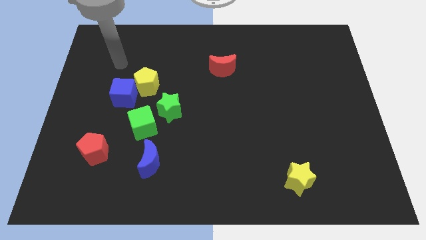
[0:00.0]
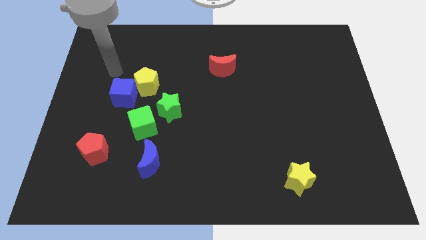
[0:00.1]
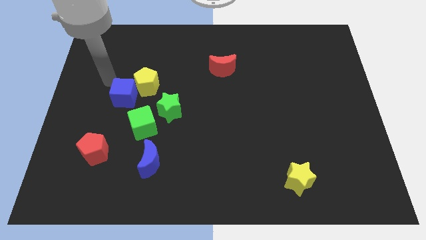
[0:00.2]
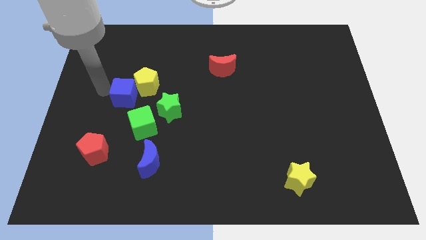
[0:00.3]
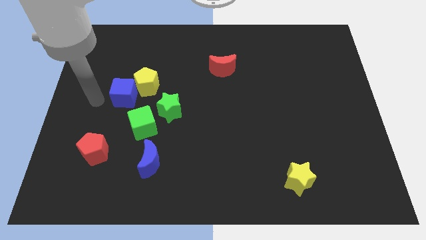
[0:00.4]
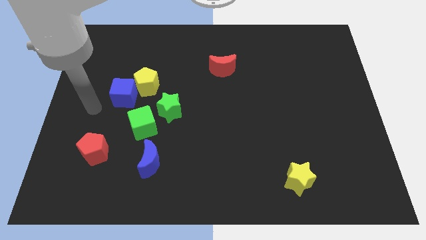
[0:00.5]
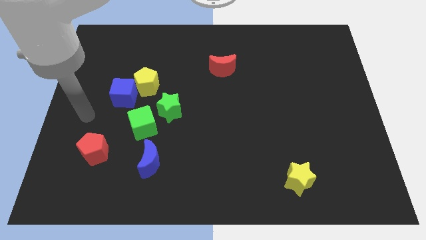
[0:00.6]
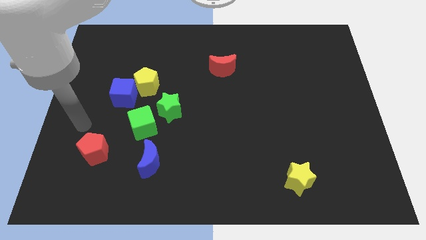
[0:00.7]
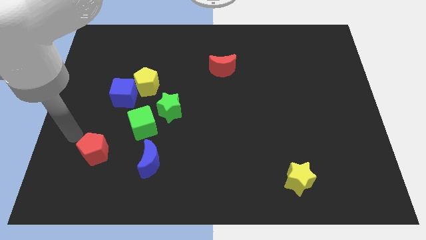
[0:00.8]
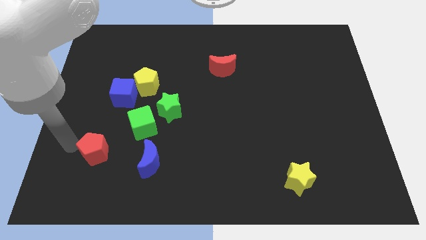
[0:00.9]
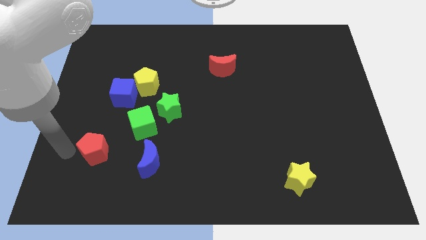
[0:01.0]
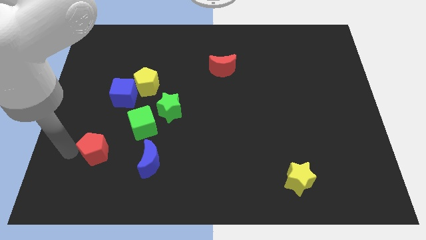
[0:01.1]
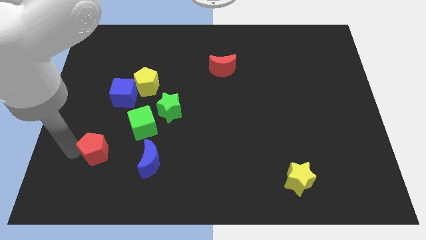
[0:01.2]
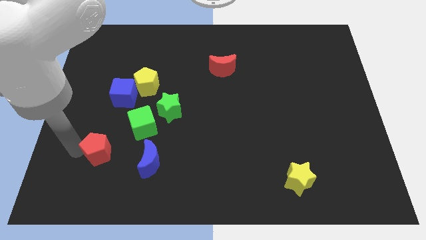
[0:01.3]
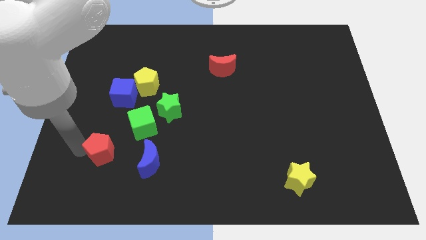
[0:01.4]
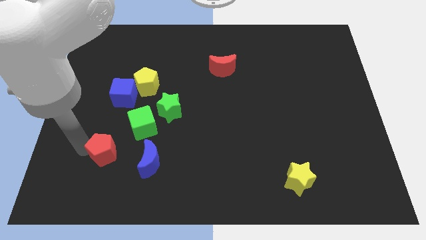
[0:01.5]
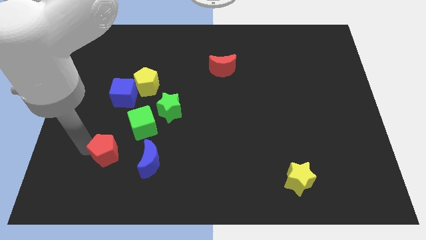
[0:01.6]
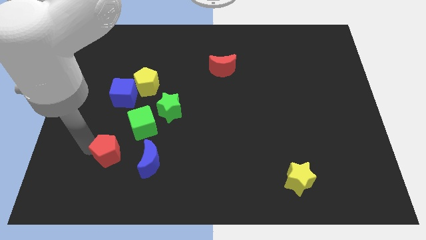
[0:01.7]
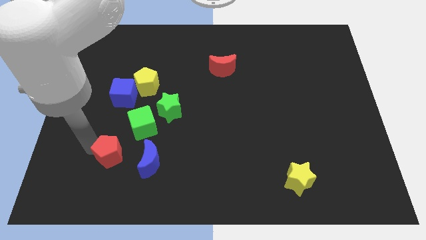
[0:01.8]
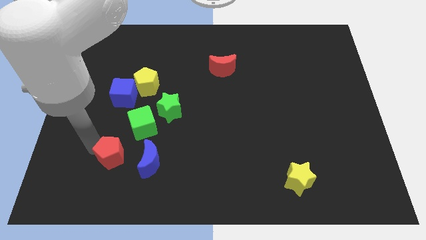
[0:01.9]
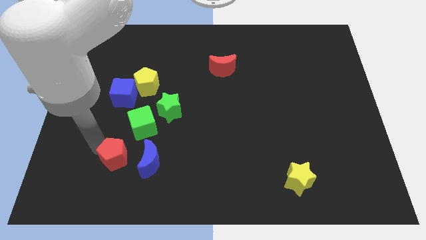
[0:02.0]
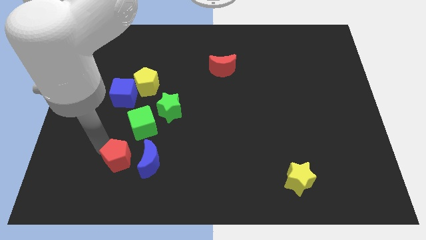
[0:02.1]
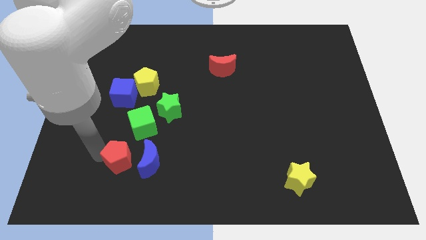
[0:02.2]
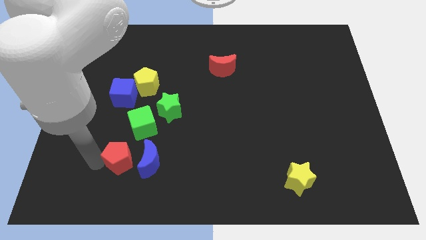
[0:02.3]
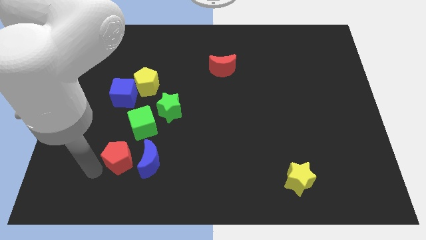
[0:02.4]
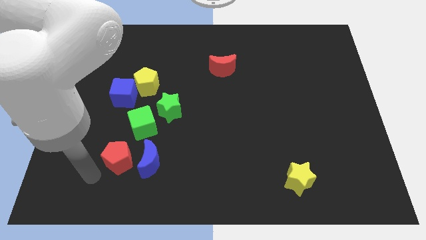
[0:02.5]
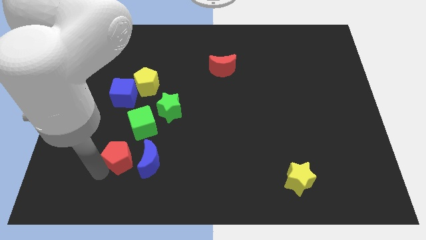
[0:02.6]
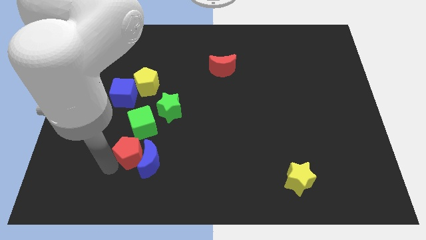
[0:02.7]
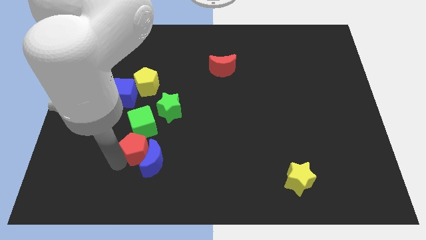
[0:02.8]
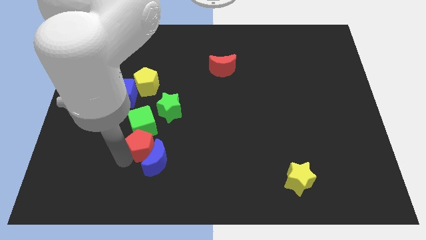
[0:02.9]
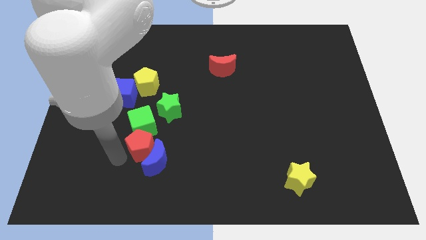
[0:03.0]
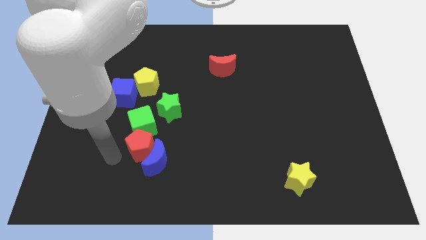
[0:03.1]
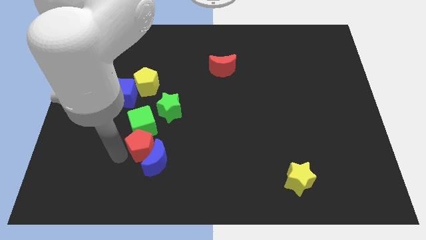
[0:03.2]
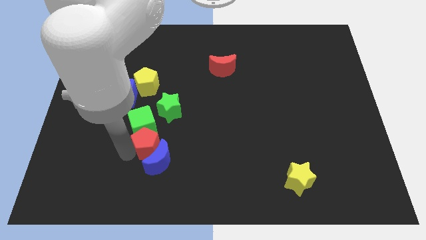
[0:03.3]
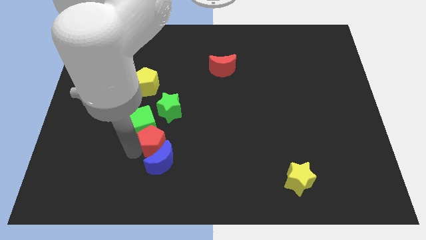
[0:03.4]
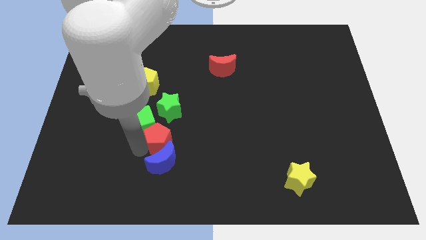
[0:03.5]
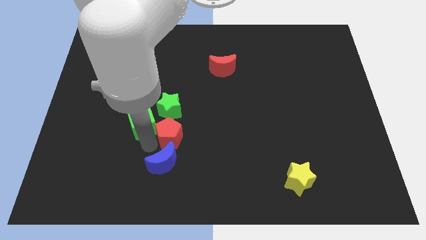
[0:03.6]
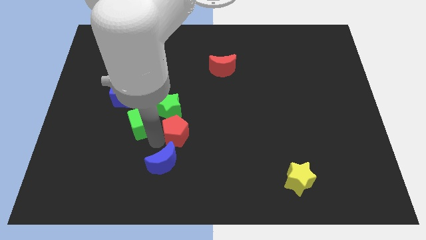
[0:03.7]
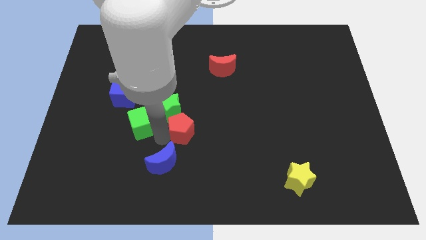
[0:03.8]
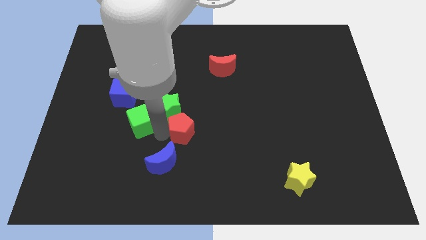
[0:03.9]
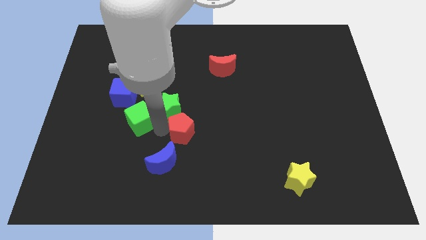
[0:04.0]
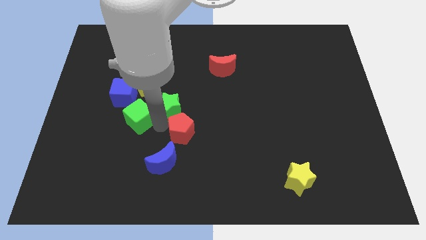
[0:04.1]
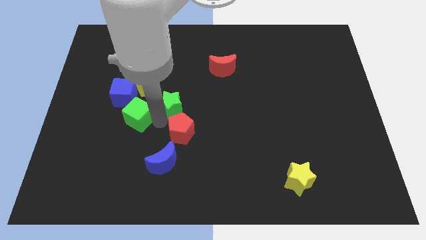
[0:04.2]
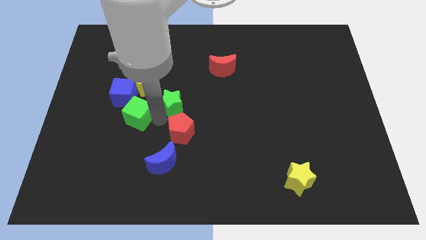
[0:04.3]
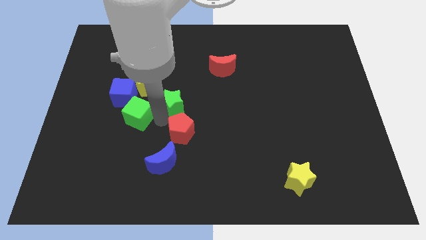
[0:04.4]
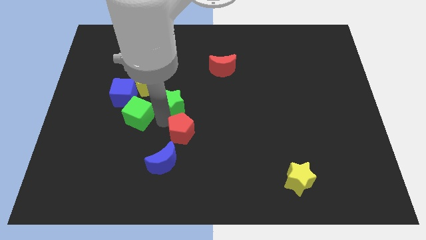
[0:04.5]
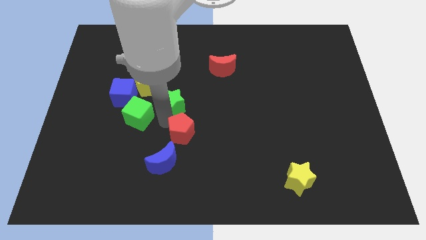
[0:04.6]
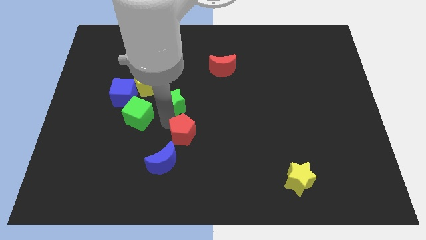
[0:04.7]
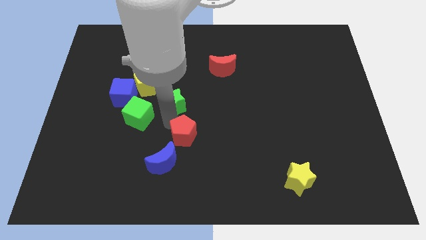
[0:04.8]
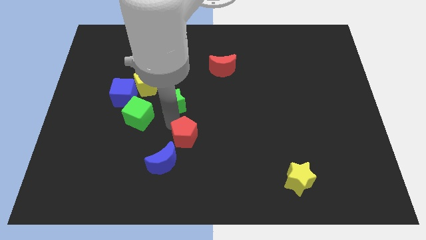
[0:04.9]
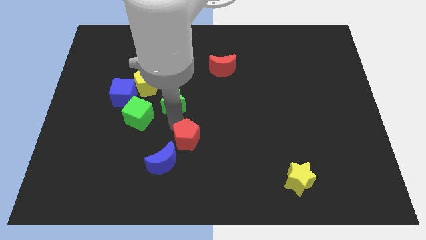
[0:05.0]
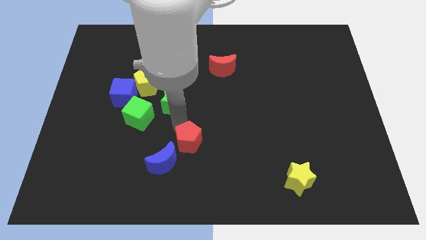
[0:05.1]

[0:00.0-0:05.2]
move the red pentagon right

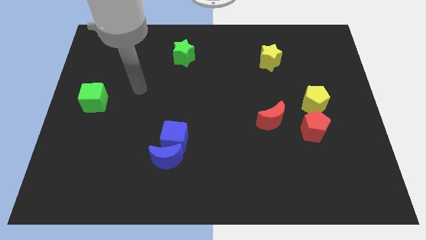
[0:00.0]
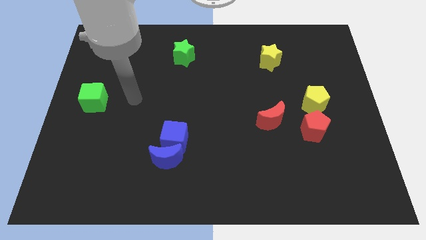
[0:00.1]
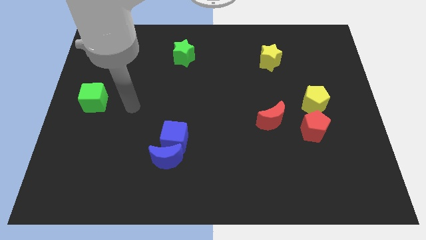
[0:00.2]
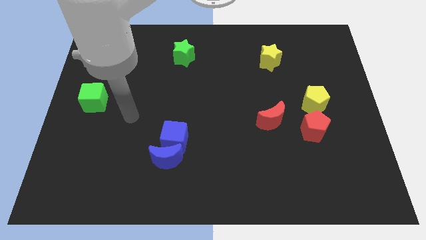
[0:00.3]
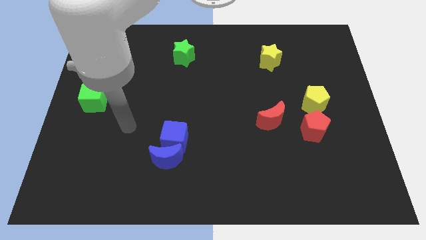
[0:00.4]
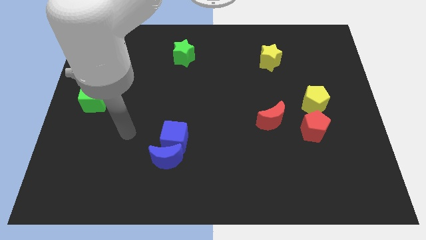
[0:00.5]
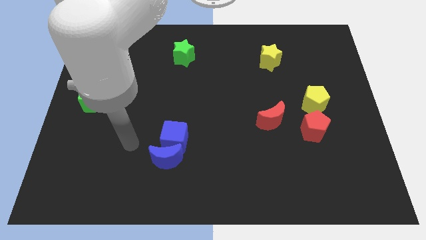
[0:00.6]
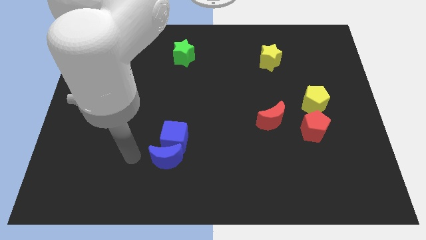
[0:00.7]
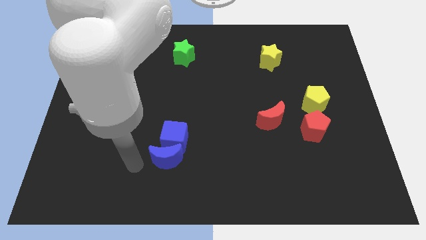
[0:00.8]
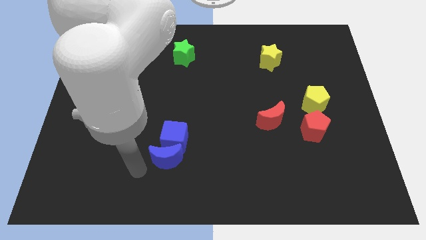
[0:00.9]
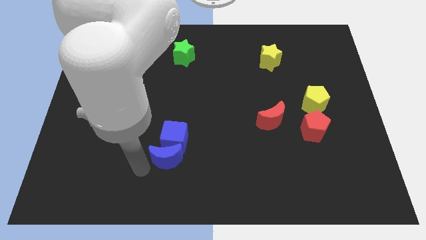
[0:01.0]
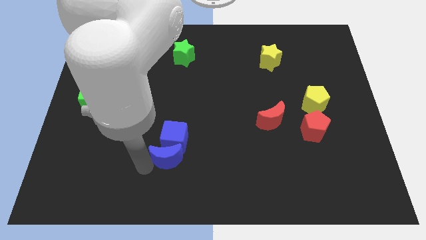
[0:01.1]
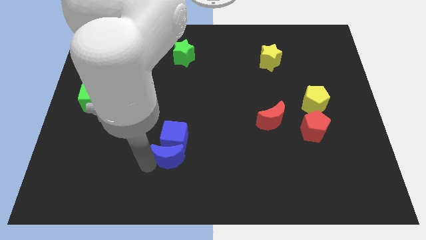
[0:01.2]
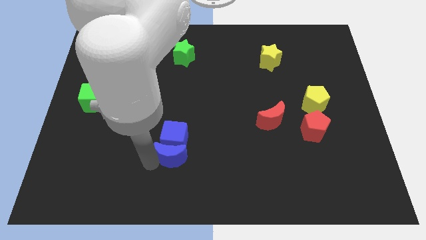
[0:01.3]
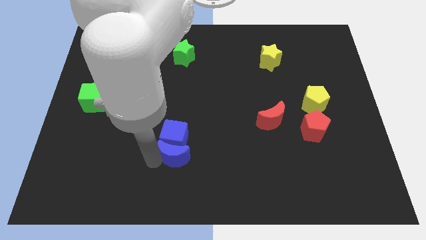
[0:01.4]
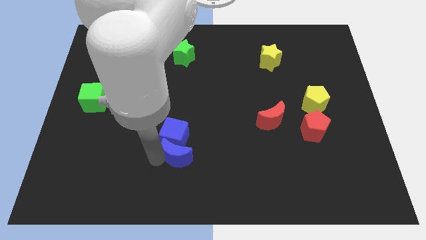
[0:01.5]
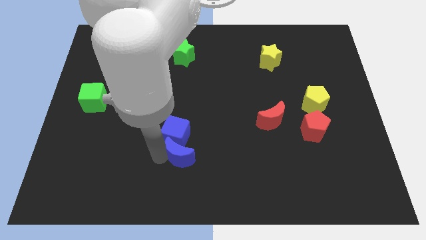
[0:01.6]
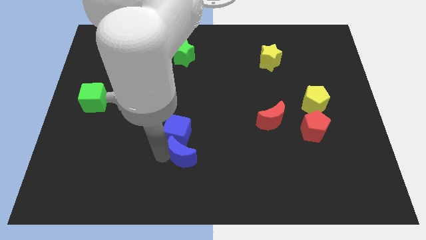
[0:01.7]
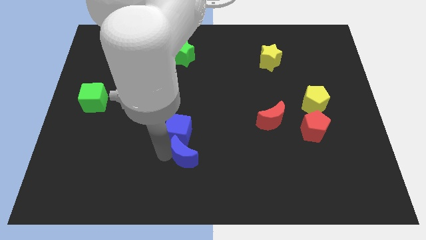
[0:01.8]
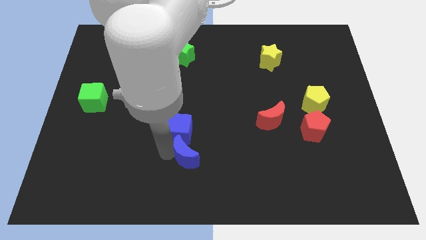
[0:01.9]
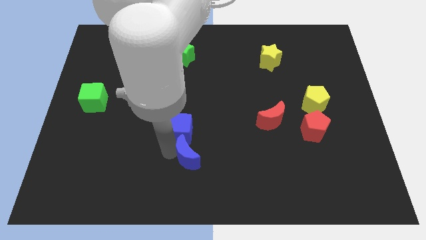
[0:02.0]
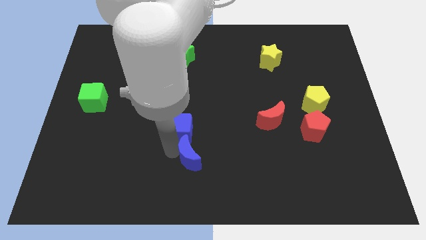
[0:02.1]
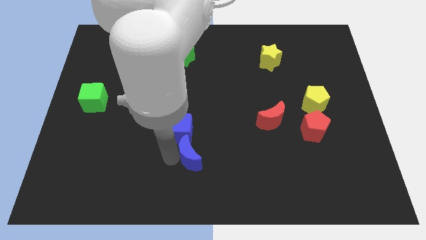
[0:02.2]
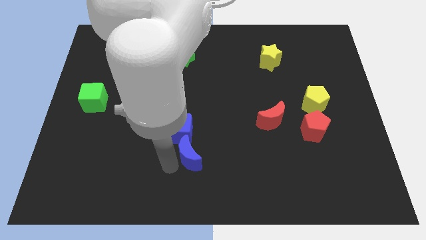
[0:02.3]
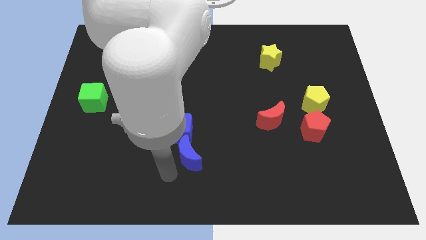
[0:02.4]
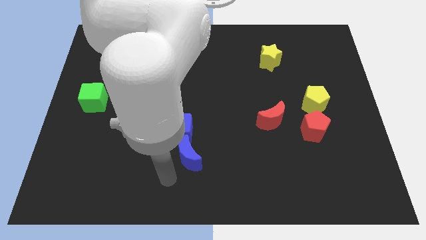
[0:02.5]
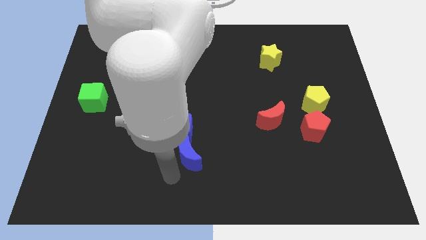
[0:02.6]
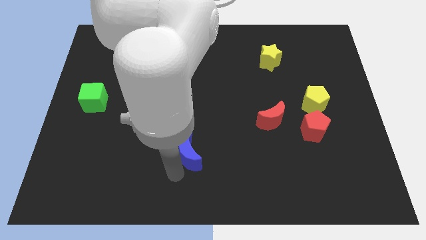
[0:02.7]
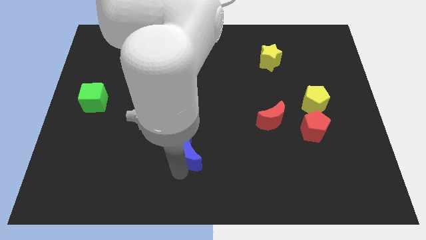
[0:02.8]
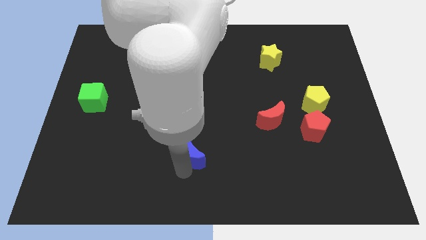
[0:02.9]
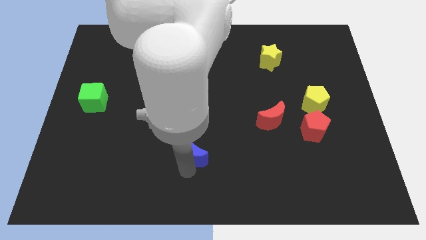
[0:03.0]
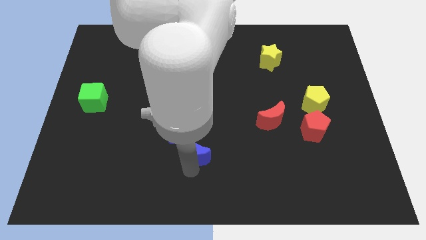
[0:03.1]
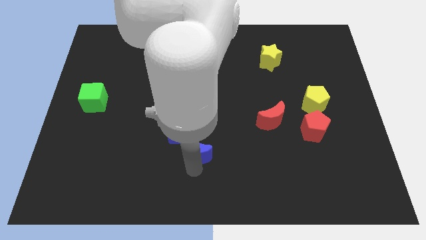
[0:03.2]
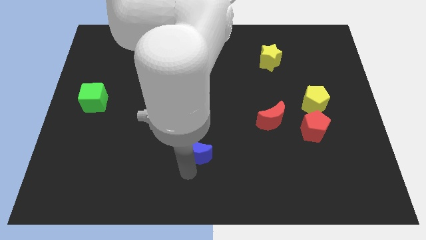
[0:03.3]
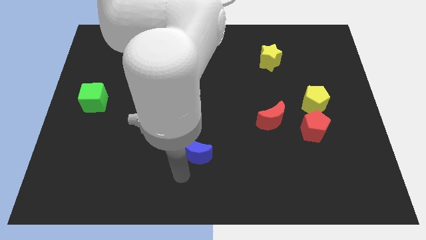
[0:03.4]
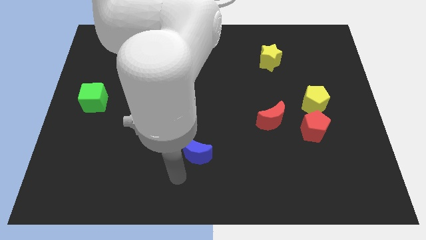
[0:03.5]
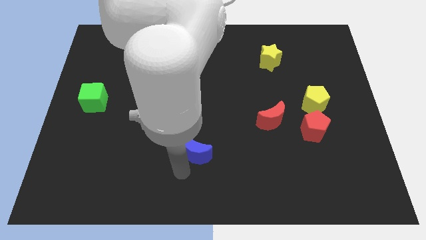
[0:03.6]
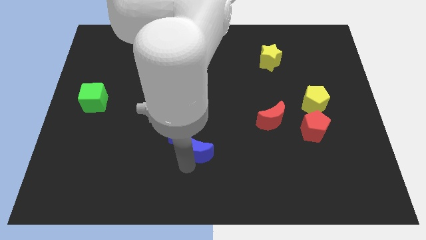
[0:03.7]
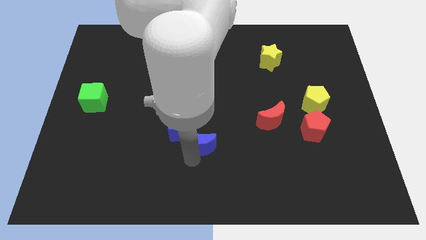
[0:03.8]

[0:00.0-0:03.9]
push the blue moon up and then to the right a bit
